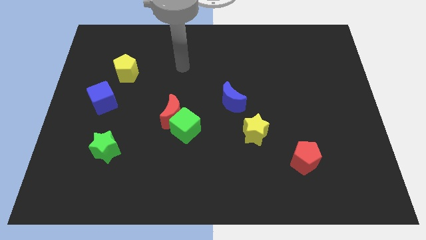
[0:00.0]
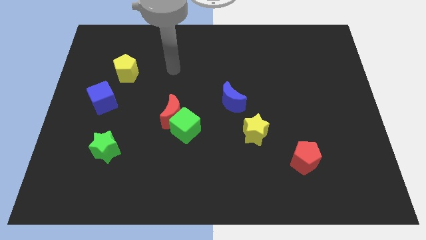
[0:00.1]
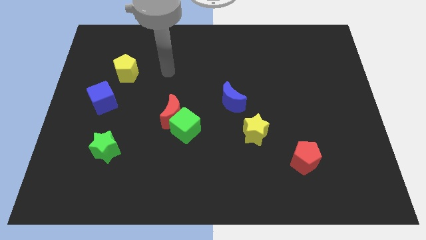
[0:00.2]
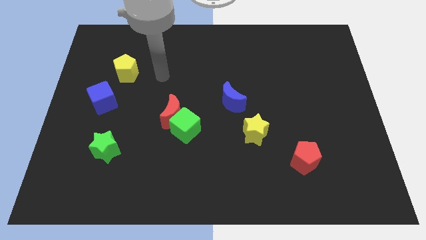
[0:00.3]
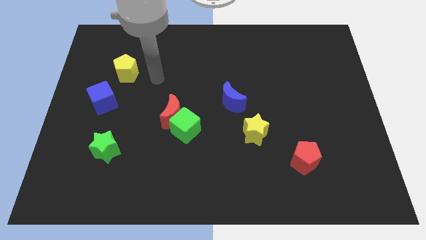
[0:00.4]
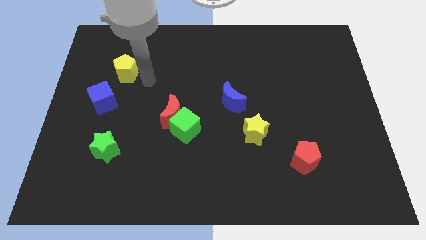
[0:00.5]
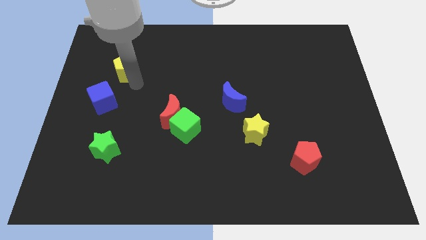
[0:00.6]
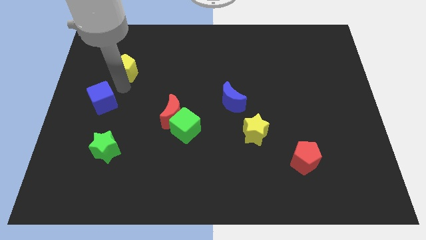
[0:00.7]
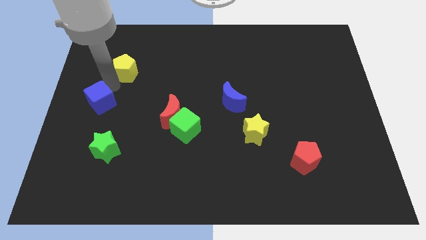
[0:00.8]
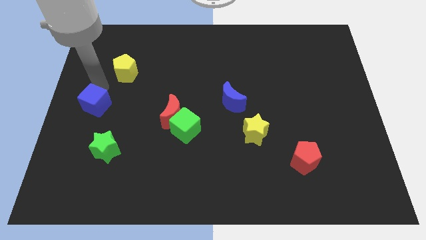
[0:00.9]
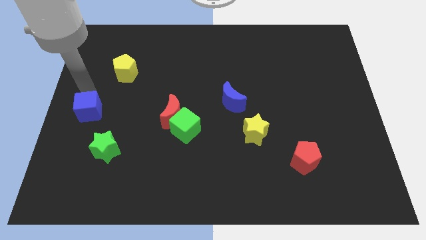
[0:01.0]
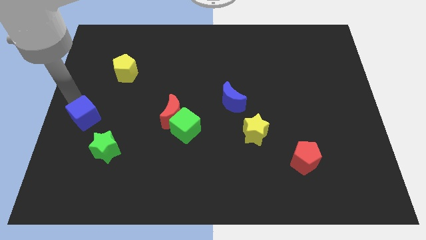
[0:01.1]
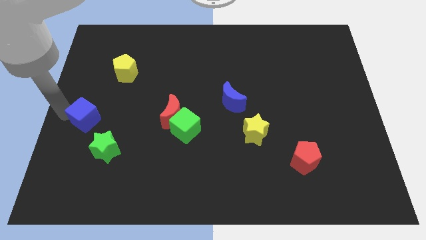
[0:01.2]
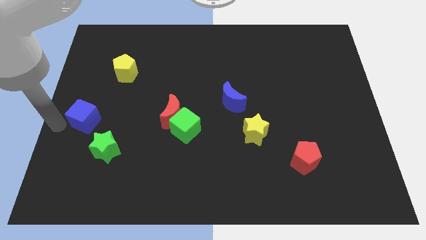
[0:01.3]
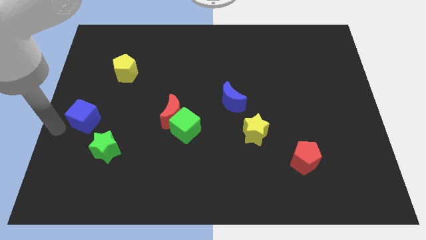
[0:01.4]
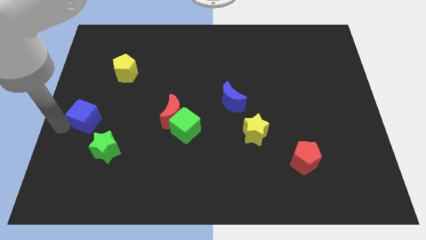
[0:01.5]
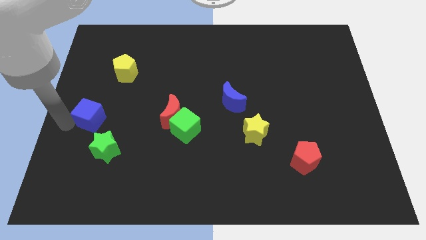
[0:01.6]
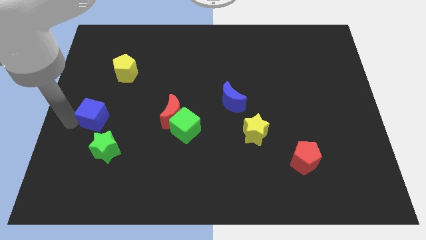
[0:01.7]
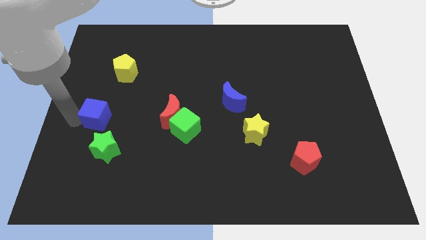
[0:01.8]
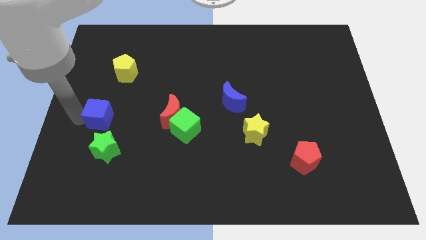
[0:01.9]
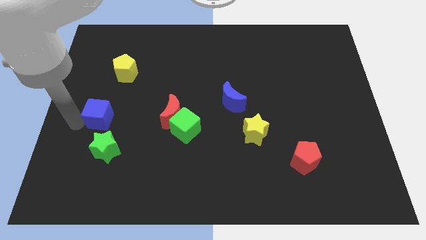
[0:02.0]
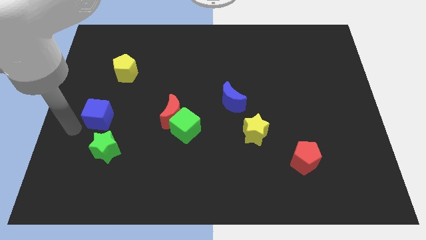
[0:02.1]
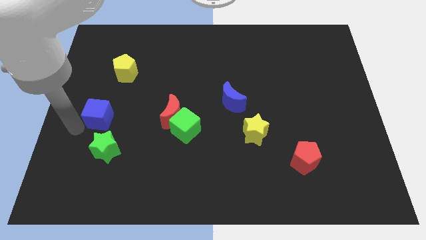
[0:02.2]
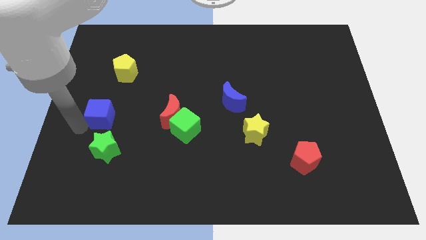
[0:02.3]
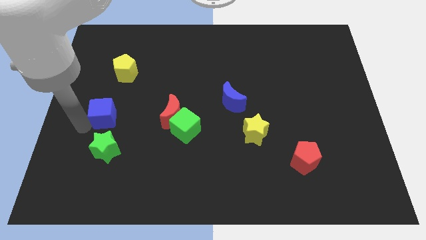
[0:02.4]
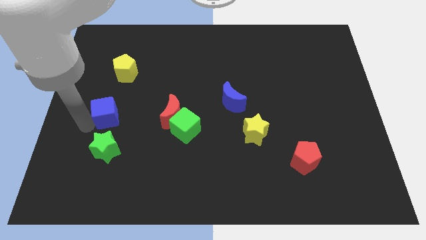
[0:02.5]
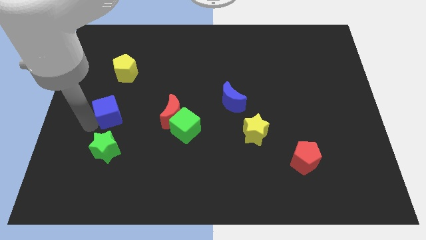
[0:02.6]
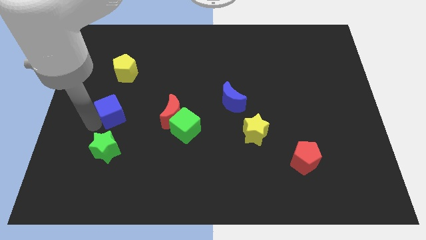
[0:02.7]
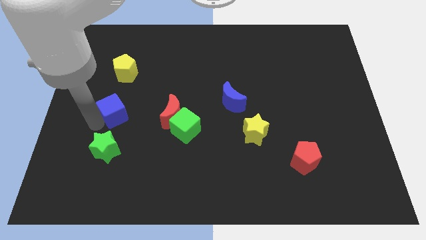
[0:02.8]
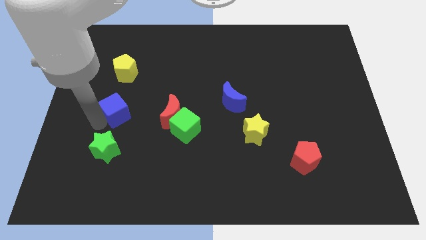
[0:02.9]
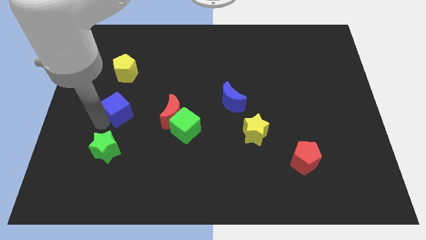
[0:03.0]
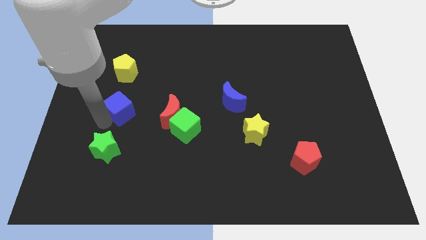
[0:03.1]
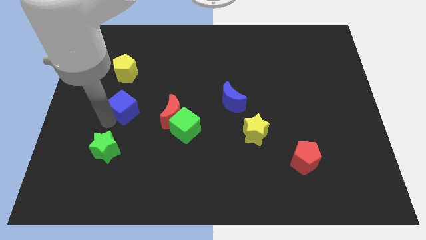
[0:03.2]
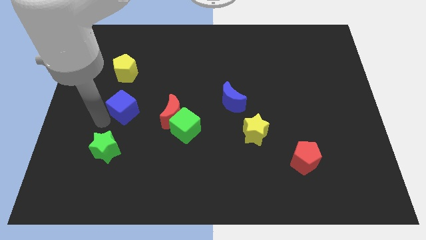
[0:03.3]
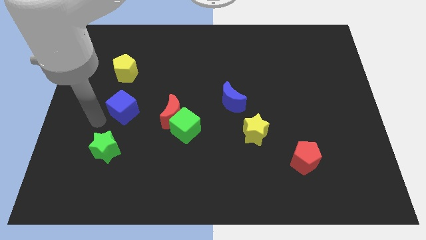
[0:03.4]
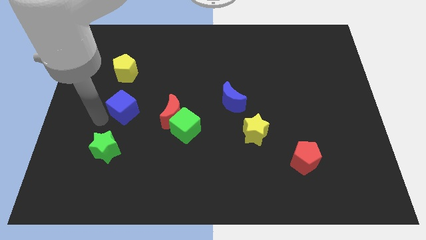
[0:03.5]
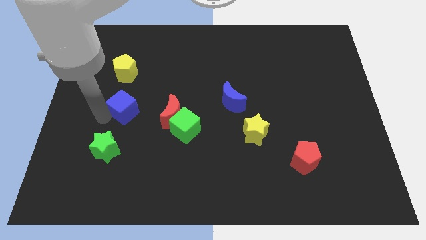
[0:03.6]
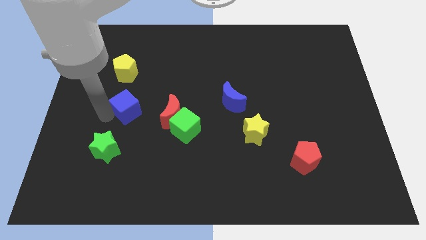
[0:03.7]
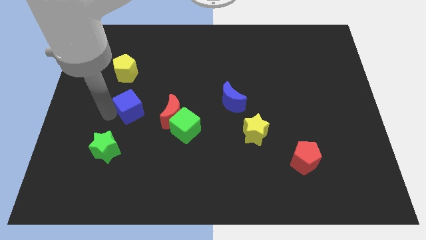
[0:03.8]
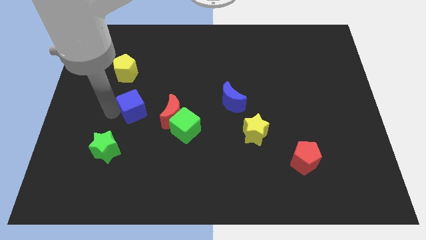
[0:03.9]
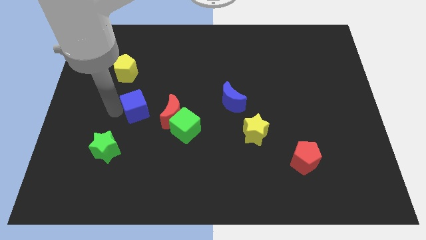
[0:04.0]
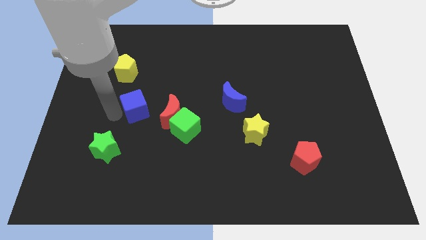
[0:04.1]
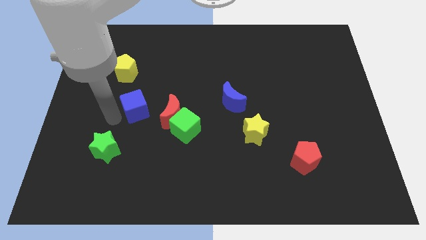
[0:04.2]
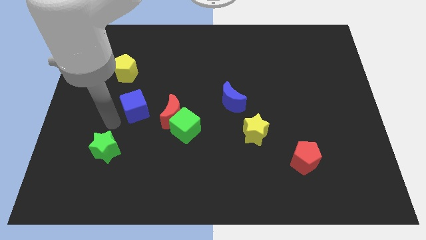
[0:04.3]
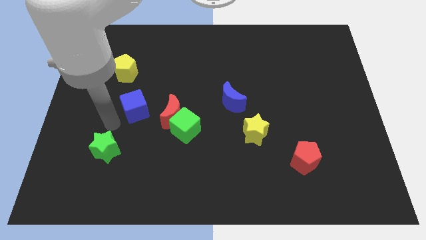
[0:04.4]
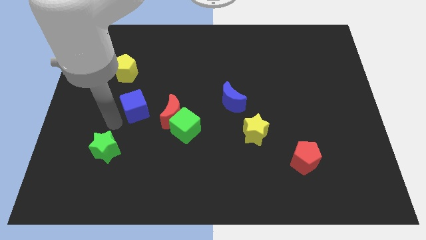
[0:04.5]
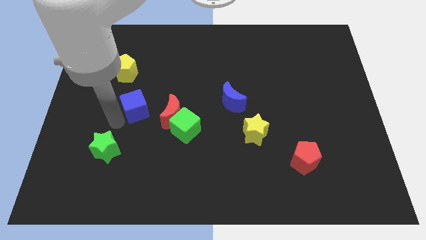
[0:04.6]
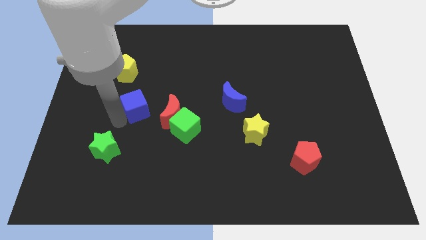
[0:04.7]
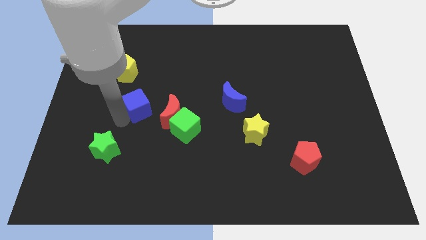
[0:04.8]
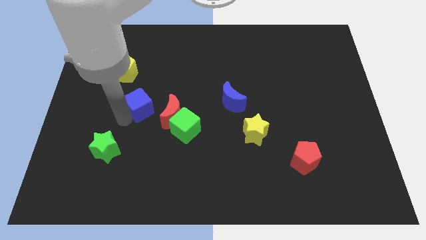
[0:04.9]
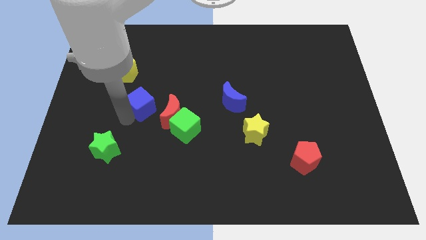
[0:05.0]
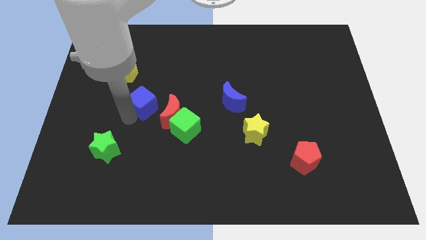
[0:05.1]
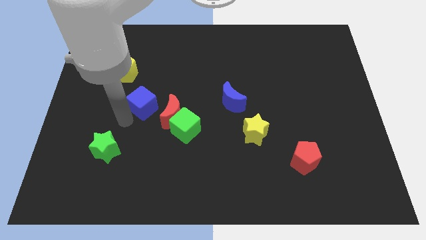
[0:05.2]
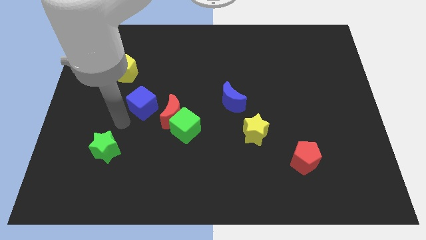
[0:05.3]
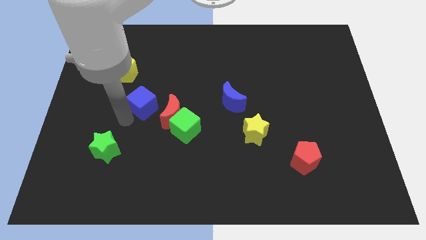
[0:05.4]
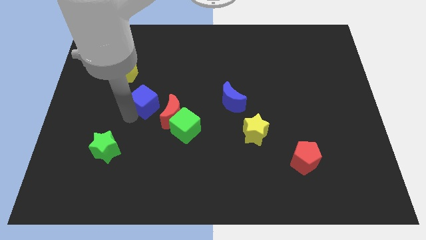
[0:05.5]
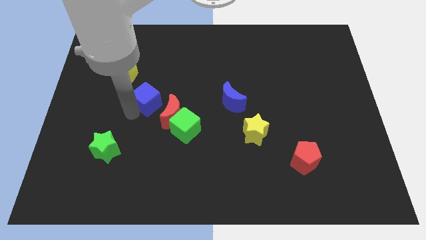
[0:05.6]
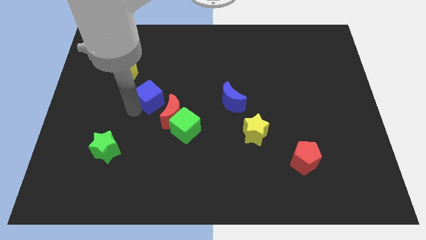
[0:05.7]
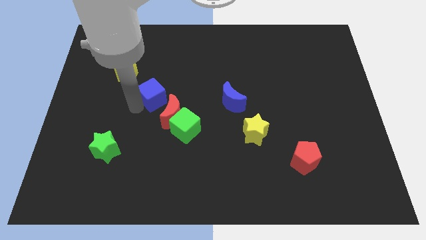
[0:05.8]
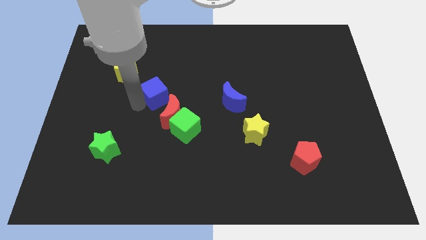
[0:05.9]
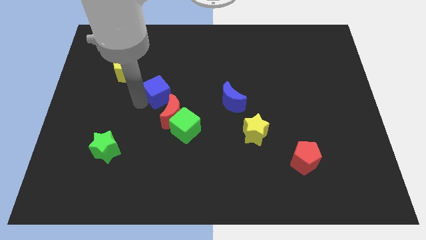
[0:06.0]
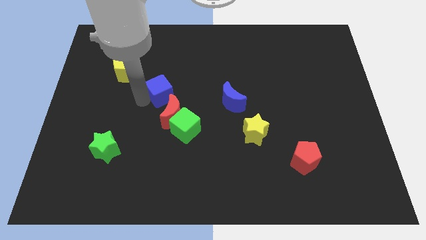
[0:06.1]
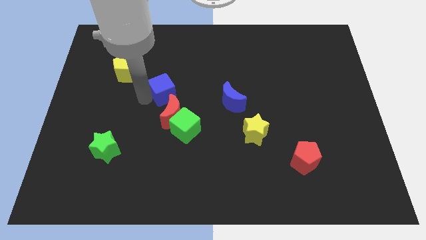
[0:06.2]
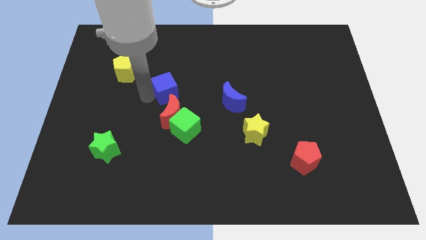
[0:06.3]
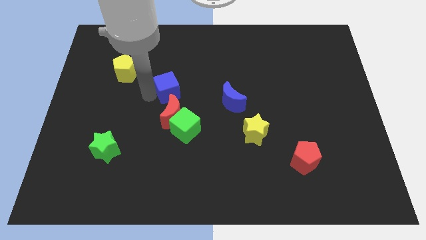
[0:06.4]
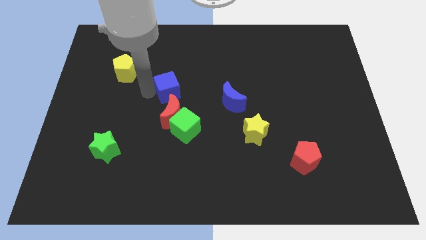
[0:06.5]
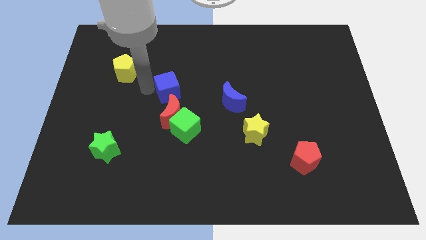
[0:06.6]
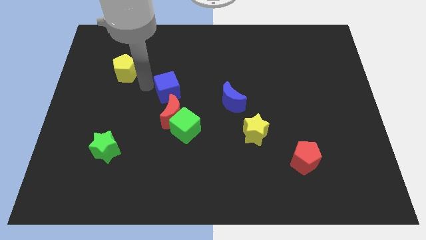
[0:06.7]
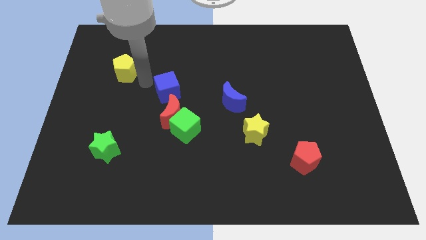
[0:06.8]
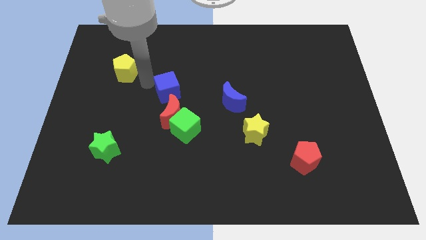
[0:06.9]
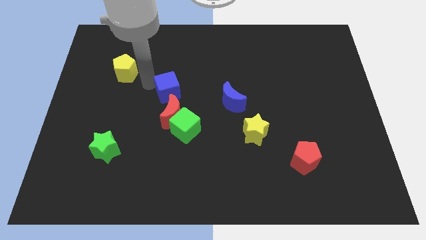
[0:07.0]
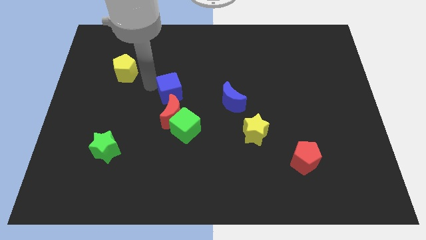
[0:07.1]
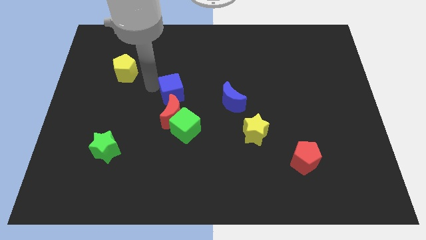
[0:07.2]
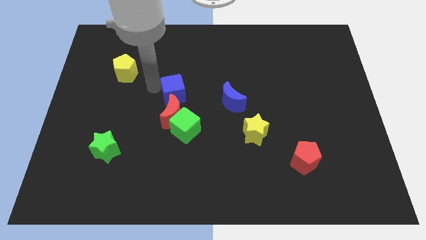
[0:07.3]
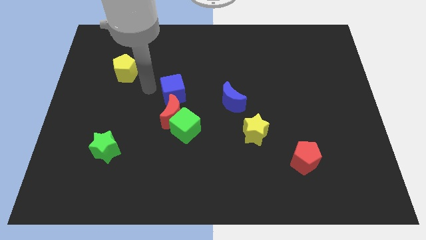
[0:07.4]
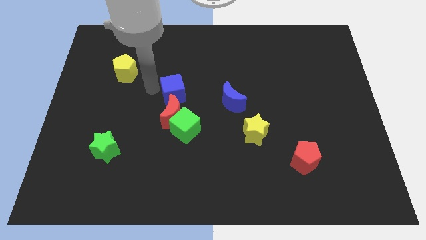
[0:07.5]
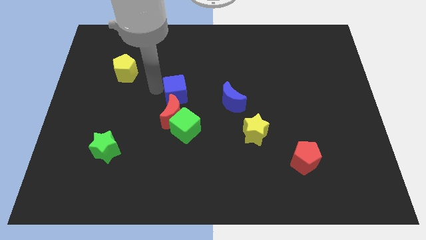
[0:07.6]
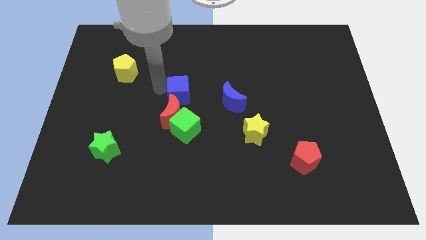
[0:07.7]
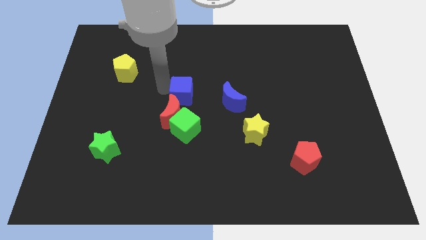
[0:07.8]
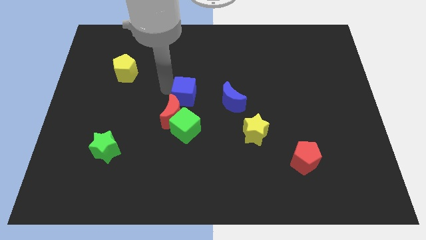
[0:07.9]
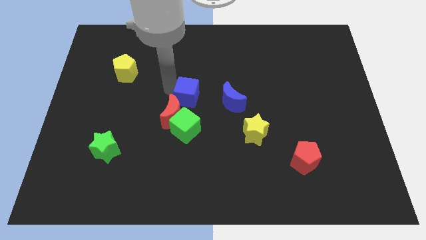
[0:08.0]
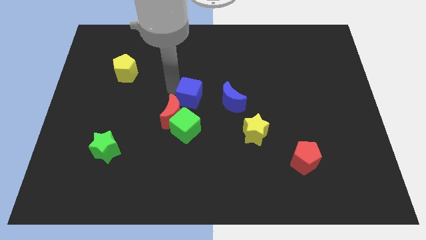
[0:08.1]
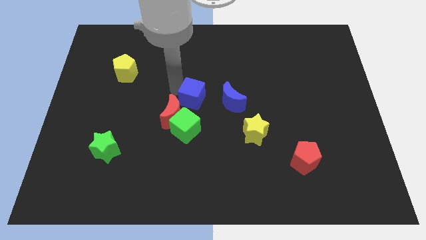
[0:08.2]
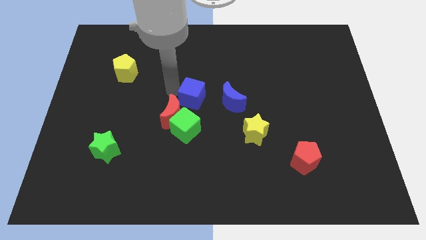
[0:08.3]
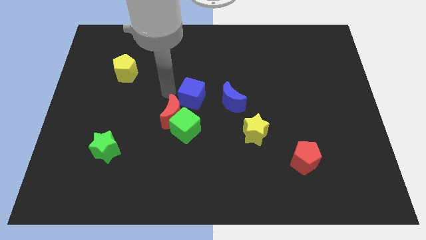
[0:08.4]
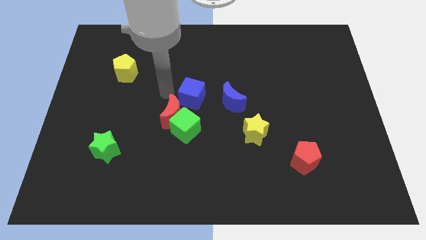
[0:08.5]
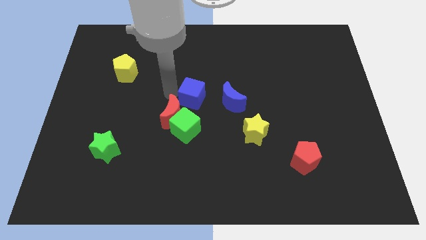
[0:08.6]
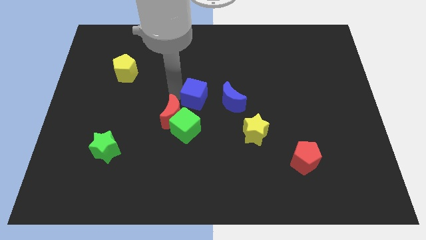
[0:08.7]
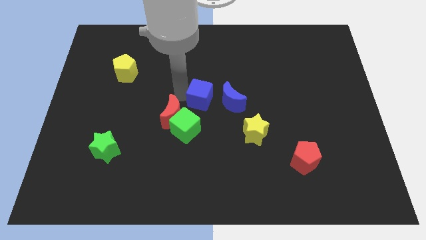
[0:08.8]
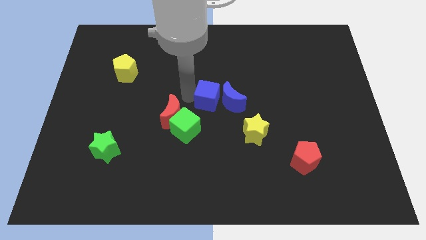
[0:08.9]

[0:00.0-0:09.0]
put the blue cube next to the blue moon
